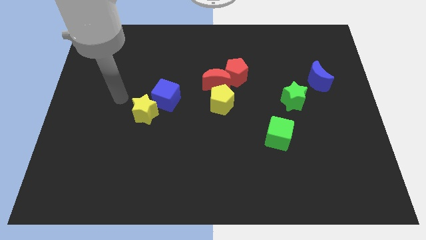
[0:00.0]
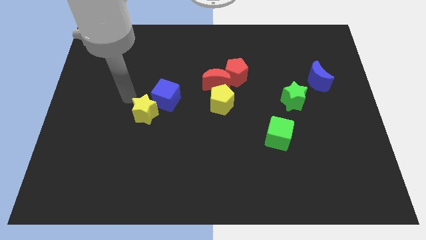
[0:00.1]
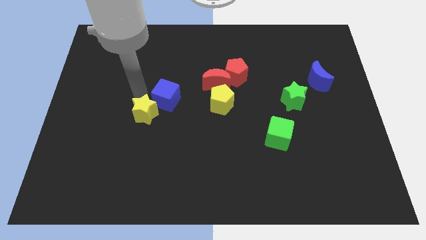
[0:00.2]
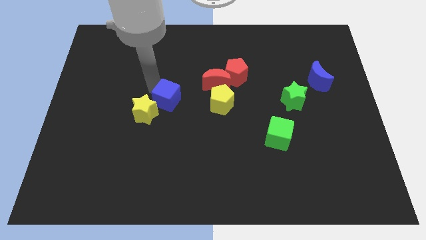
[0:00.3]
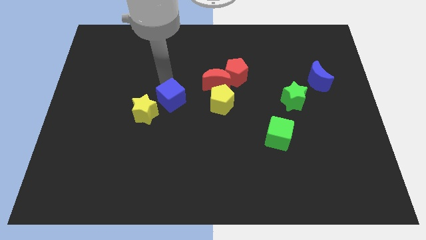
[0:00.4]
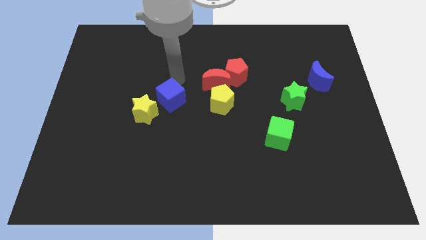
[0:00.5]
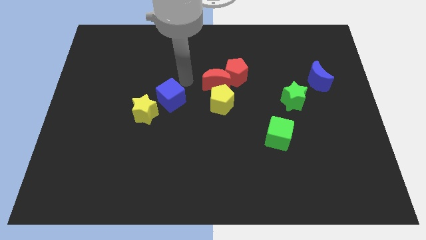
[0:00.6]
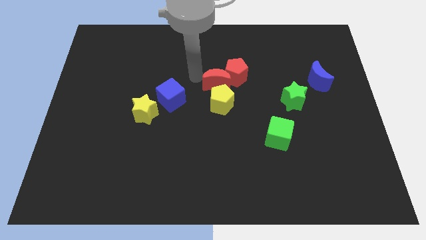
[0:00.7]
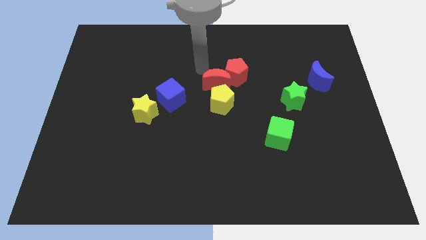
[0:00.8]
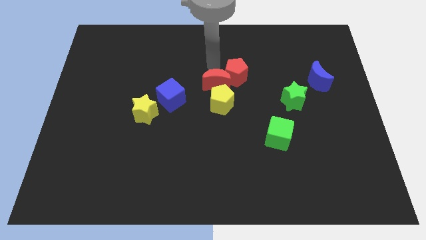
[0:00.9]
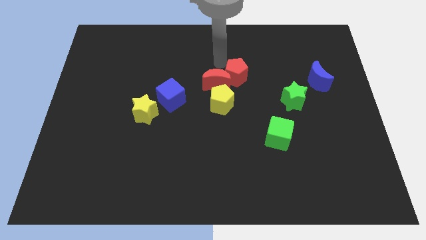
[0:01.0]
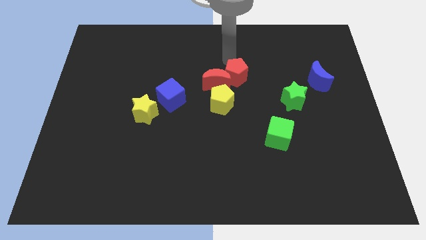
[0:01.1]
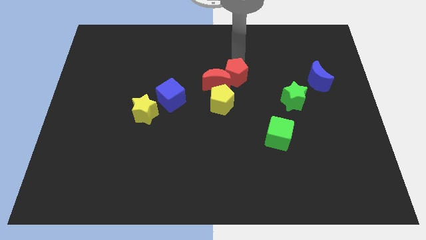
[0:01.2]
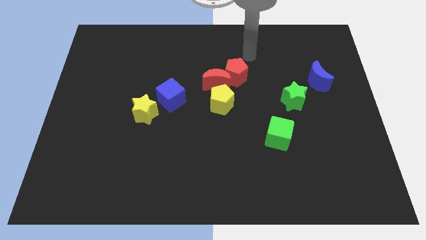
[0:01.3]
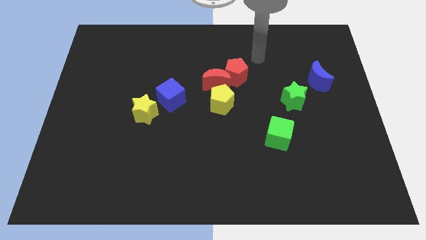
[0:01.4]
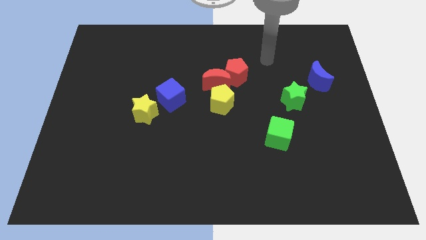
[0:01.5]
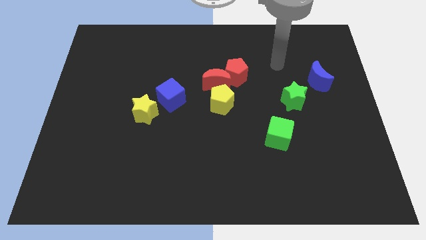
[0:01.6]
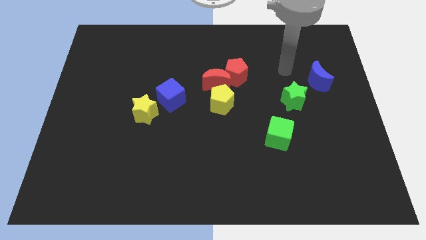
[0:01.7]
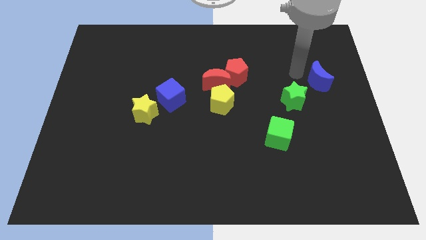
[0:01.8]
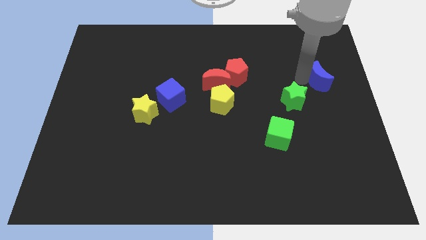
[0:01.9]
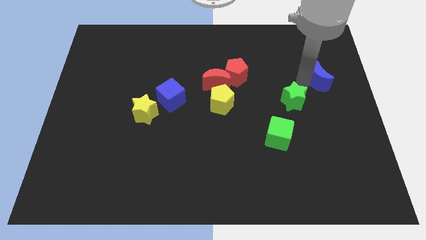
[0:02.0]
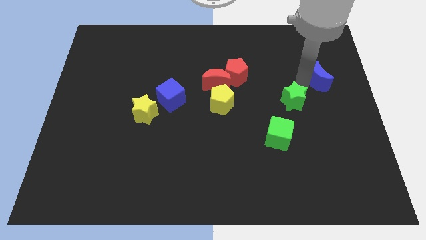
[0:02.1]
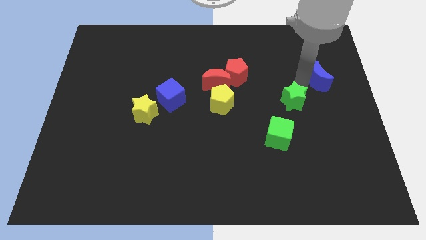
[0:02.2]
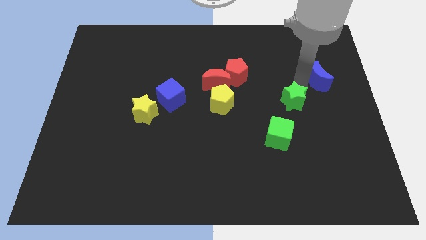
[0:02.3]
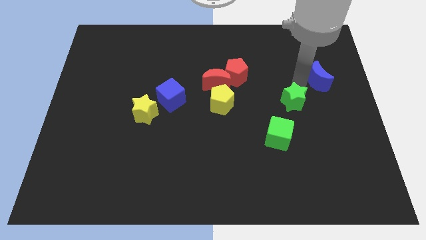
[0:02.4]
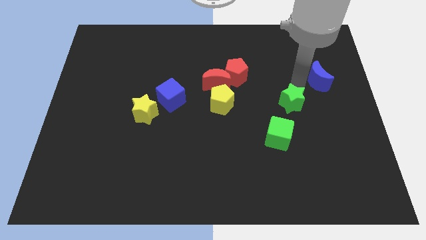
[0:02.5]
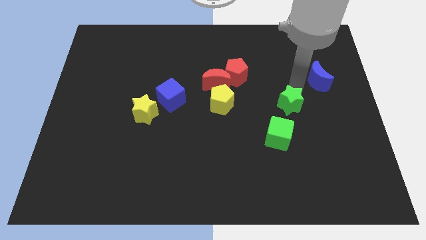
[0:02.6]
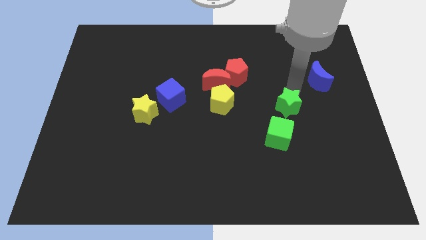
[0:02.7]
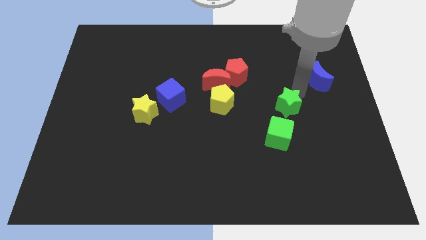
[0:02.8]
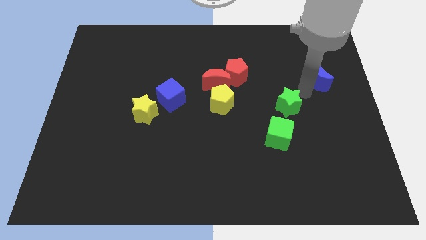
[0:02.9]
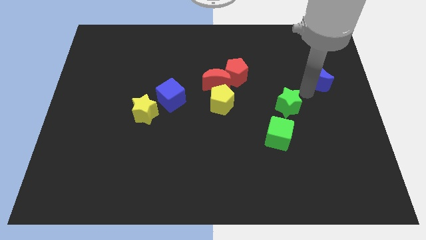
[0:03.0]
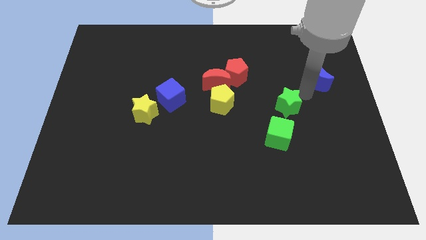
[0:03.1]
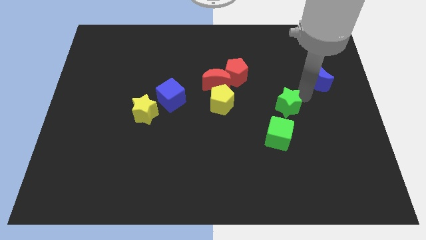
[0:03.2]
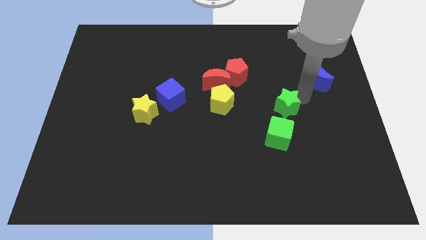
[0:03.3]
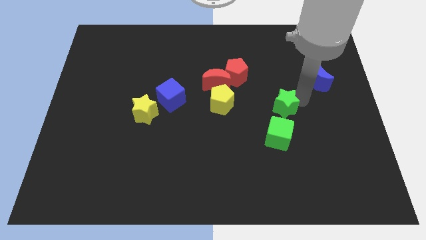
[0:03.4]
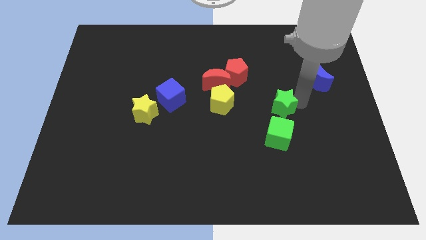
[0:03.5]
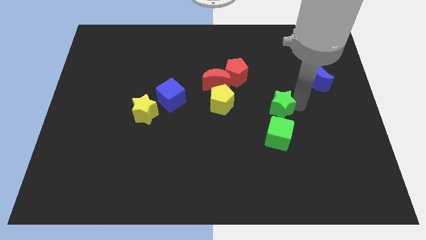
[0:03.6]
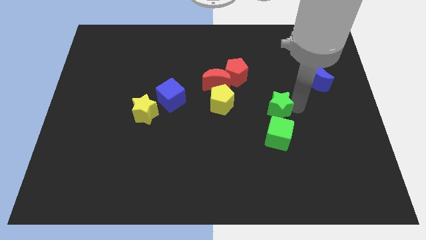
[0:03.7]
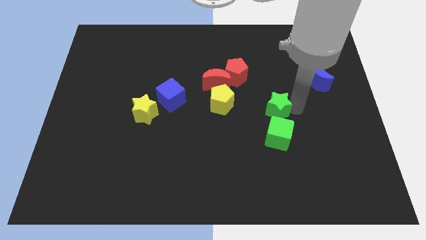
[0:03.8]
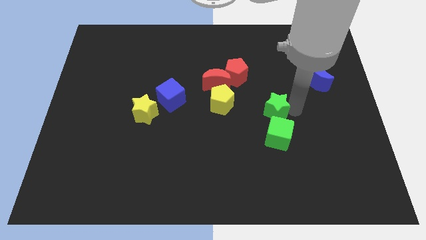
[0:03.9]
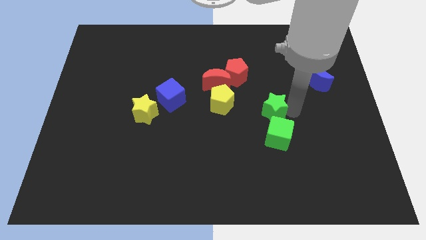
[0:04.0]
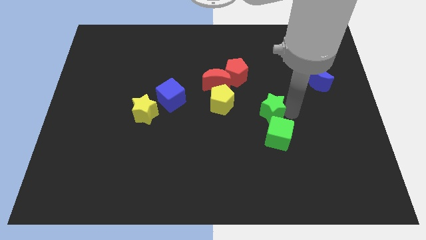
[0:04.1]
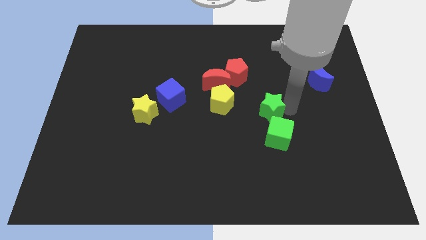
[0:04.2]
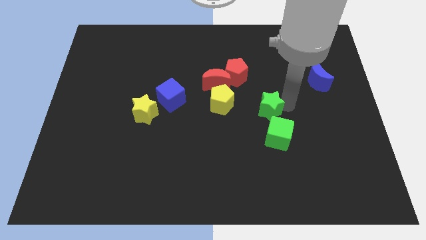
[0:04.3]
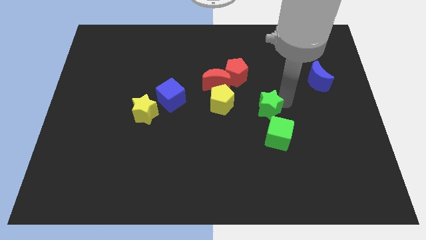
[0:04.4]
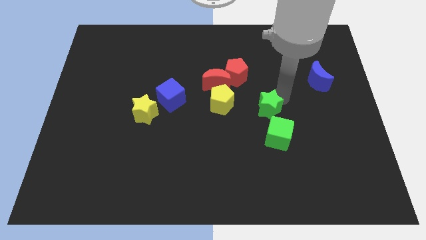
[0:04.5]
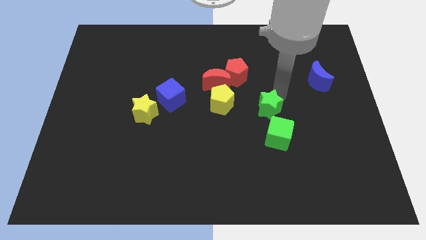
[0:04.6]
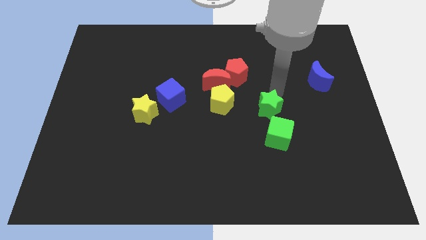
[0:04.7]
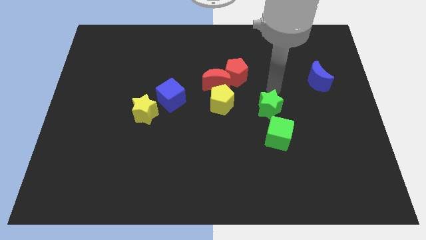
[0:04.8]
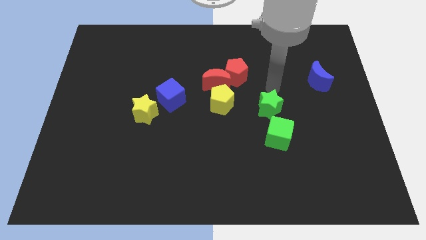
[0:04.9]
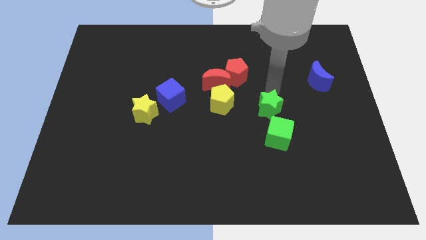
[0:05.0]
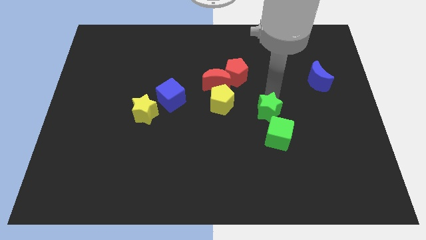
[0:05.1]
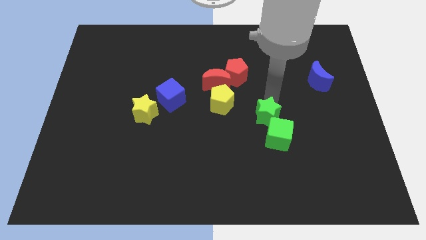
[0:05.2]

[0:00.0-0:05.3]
slide the green star slightly down and then to the left

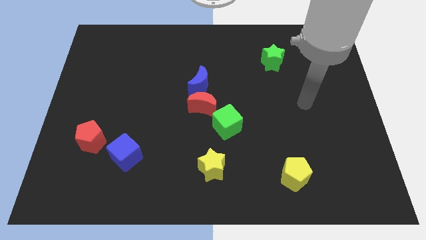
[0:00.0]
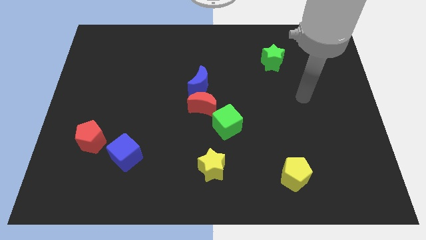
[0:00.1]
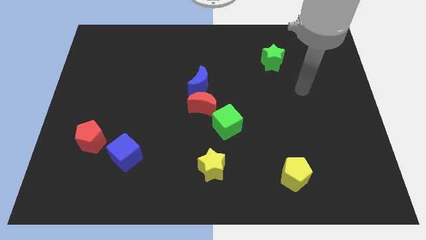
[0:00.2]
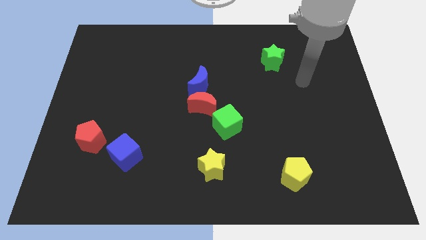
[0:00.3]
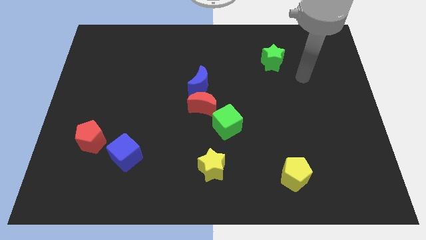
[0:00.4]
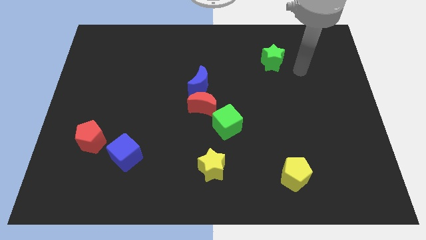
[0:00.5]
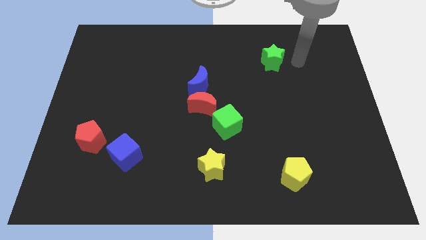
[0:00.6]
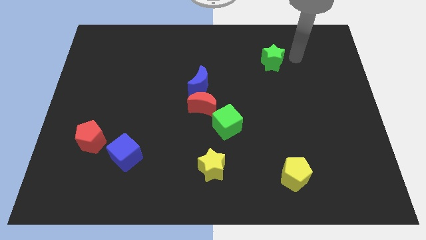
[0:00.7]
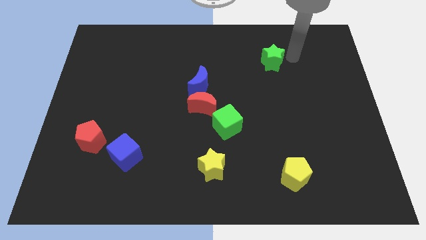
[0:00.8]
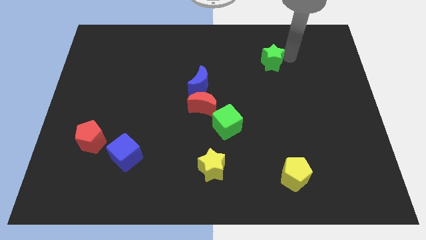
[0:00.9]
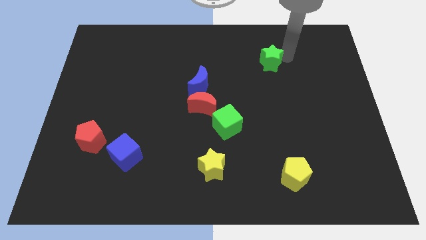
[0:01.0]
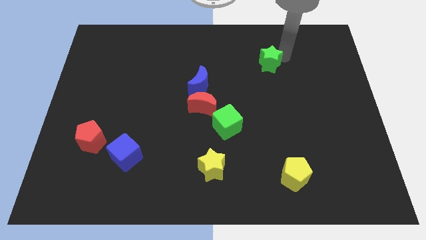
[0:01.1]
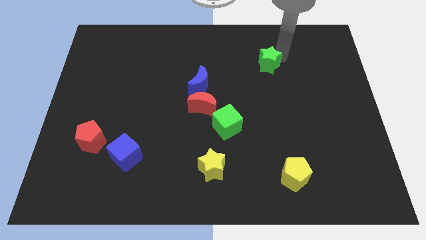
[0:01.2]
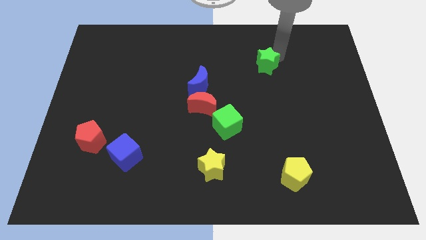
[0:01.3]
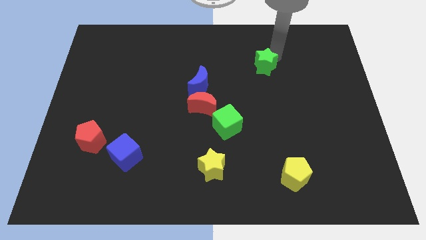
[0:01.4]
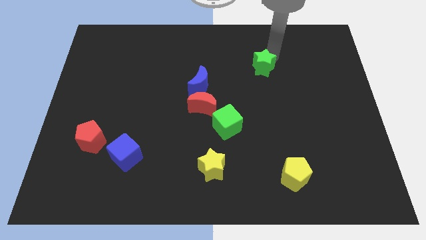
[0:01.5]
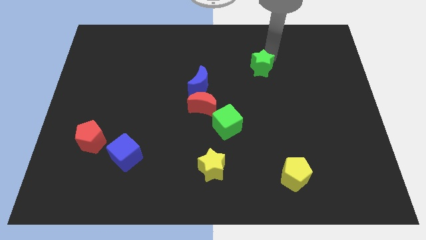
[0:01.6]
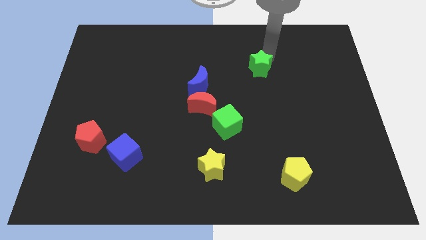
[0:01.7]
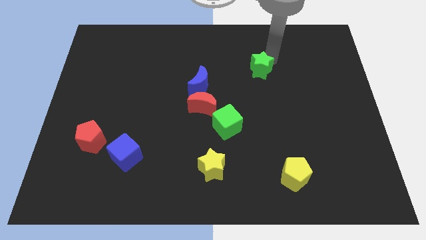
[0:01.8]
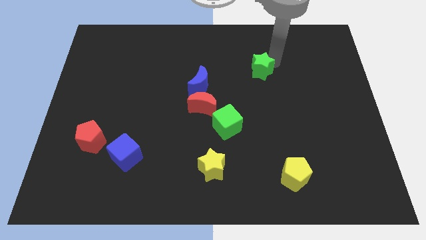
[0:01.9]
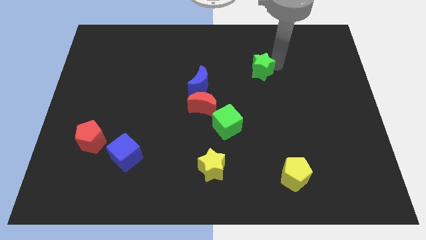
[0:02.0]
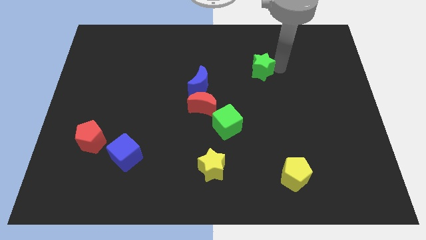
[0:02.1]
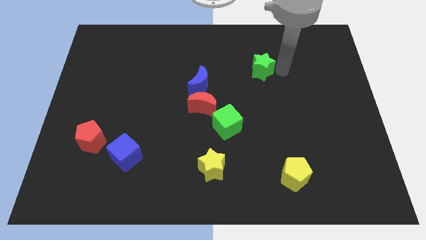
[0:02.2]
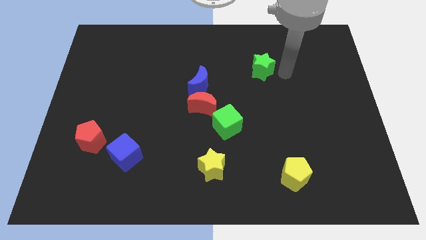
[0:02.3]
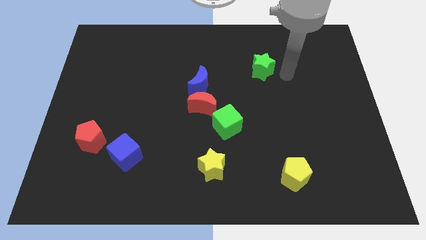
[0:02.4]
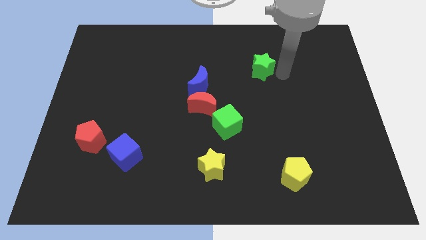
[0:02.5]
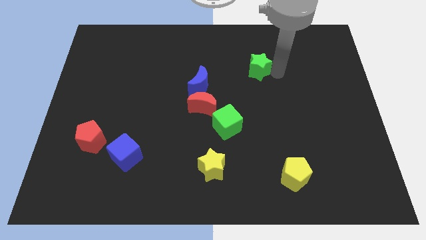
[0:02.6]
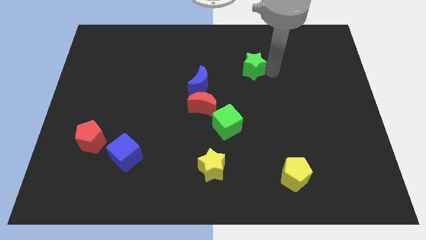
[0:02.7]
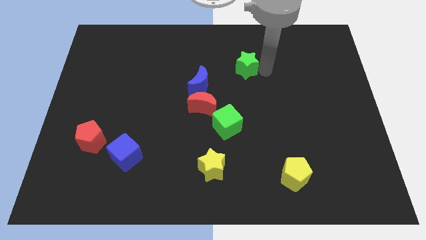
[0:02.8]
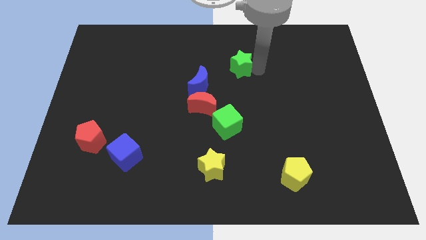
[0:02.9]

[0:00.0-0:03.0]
move the green star left slightly
